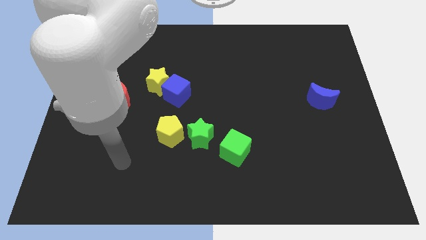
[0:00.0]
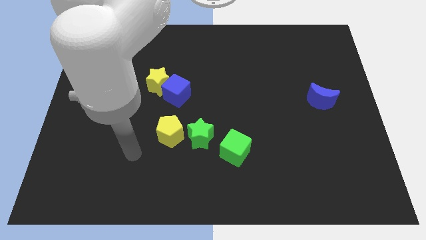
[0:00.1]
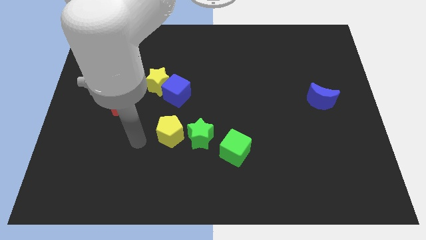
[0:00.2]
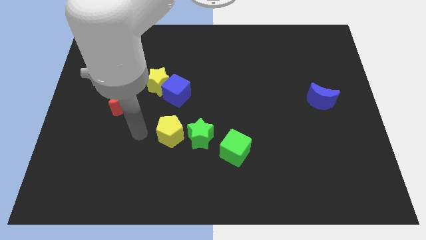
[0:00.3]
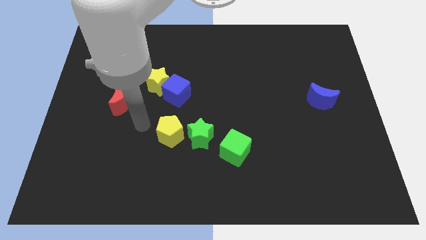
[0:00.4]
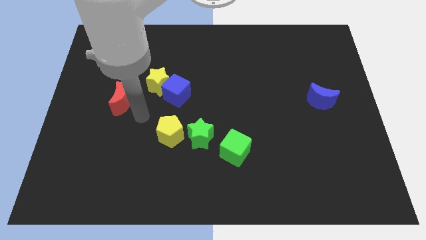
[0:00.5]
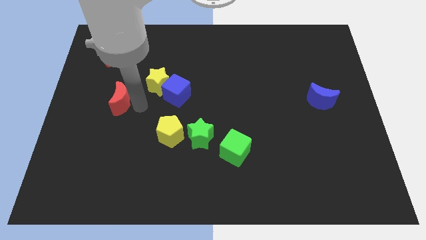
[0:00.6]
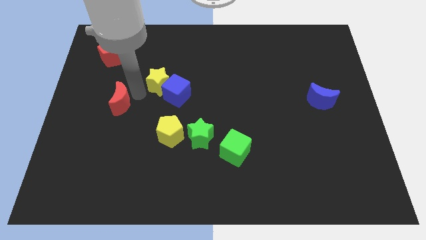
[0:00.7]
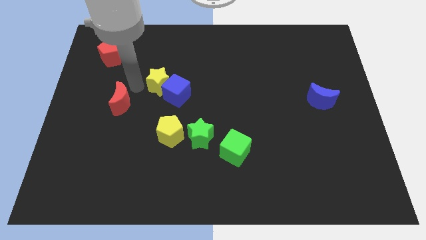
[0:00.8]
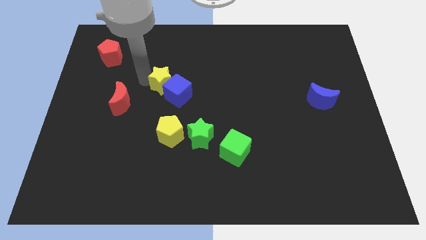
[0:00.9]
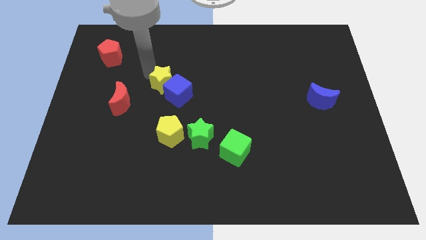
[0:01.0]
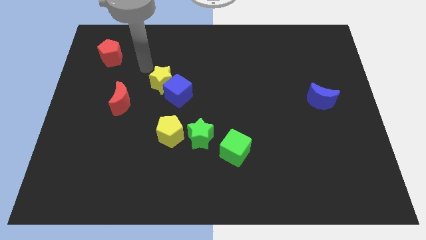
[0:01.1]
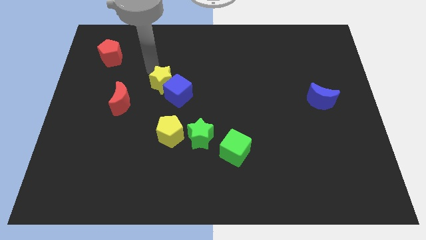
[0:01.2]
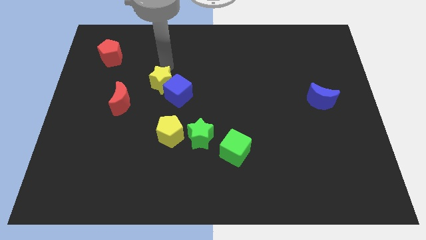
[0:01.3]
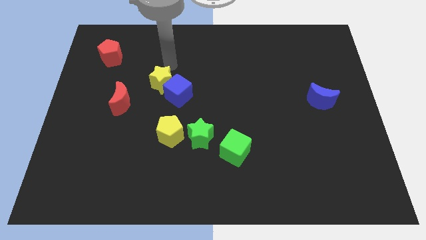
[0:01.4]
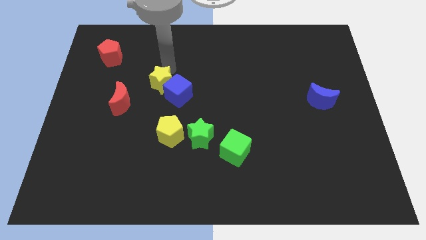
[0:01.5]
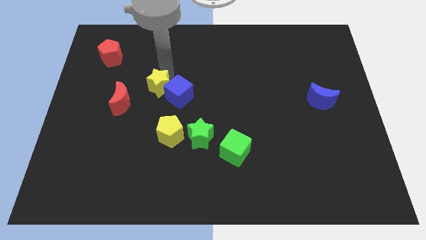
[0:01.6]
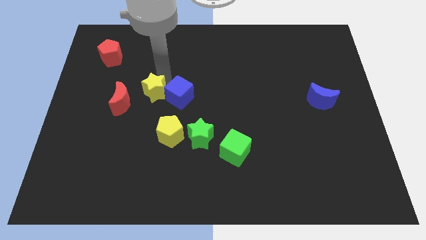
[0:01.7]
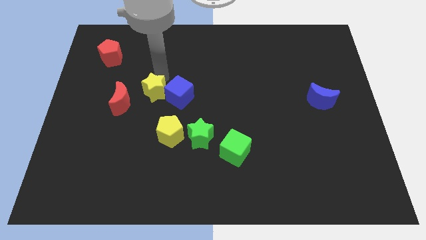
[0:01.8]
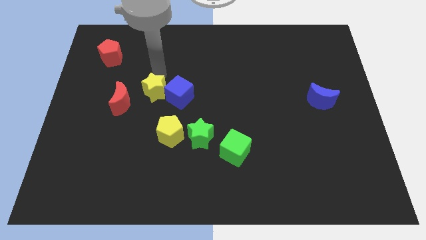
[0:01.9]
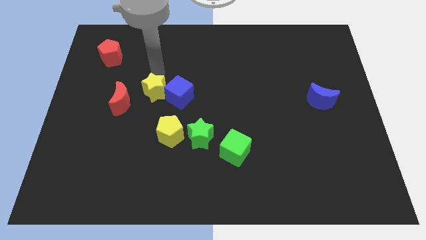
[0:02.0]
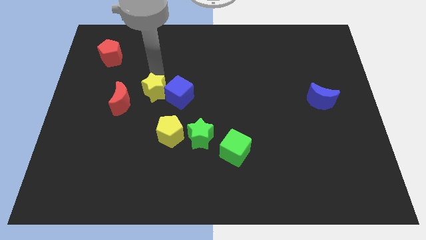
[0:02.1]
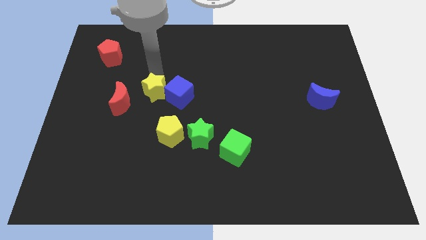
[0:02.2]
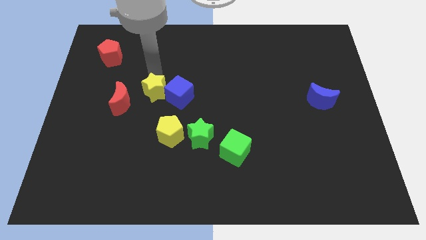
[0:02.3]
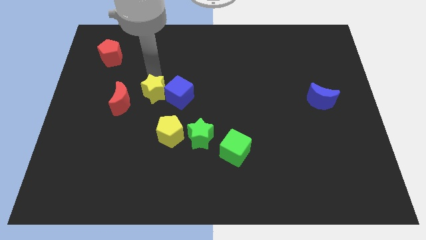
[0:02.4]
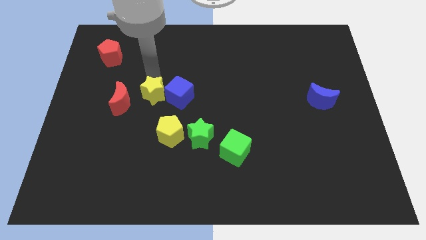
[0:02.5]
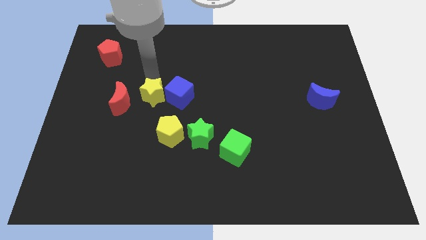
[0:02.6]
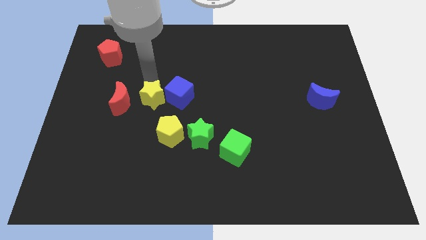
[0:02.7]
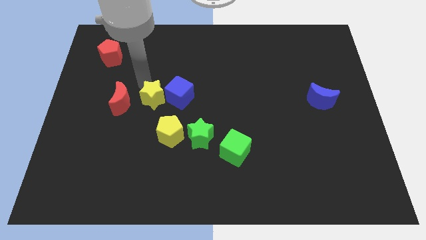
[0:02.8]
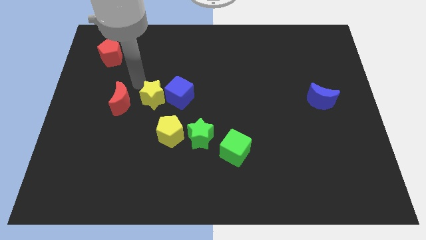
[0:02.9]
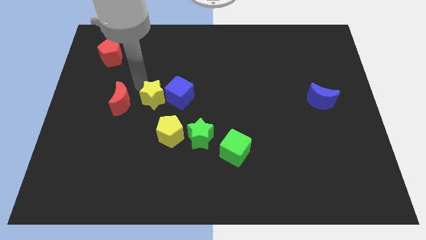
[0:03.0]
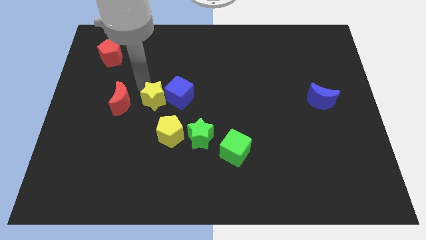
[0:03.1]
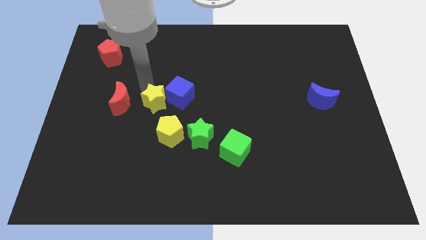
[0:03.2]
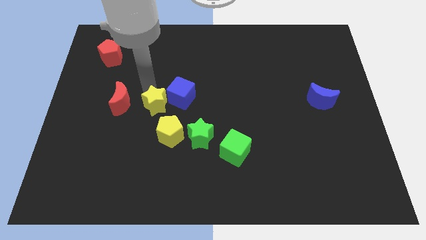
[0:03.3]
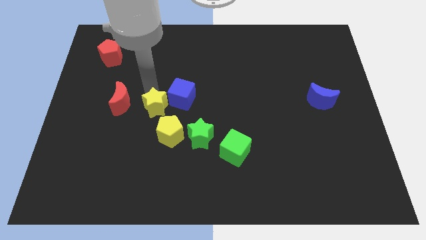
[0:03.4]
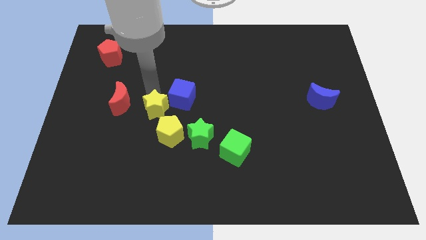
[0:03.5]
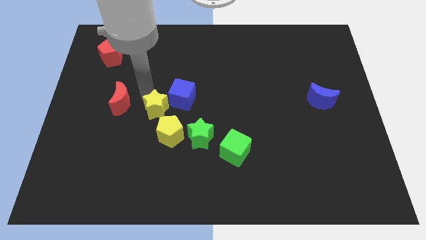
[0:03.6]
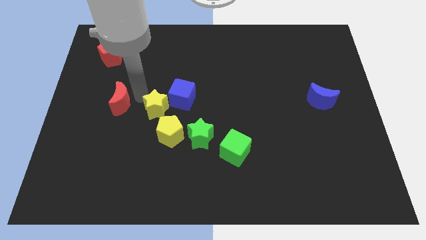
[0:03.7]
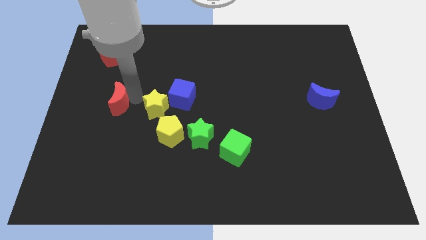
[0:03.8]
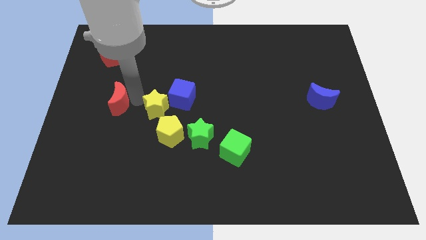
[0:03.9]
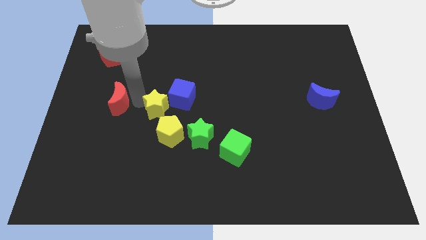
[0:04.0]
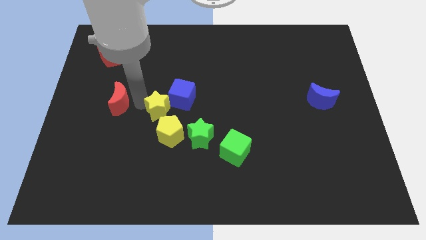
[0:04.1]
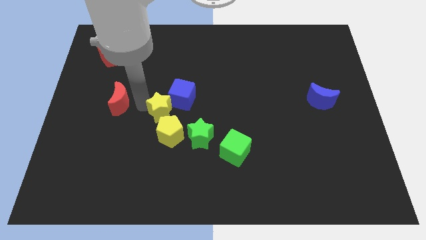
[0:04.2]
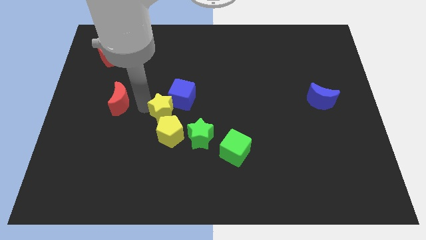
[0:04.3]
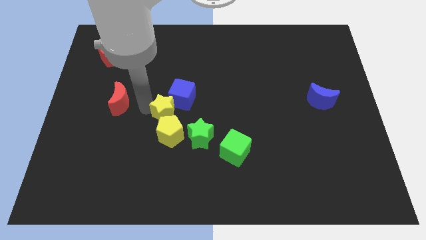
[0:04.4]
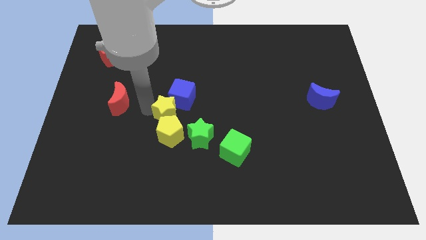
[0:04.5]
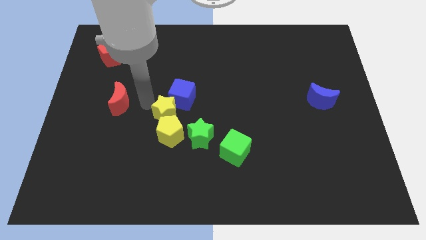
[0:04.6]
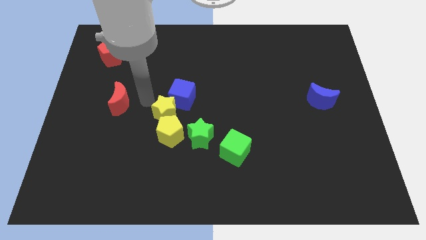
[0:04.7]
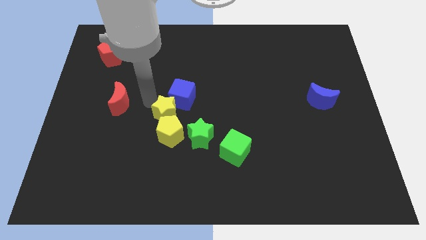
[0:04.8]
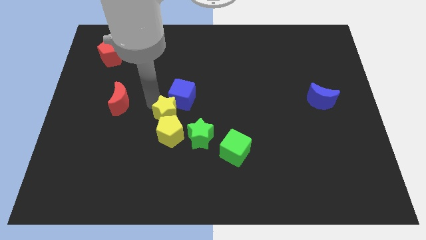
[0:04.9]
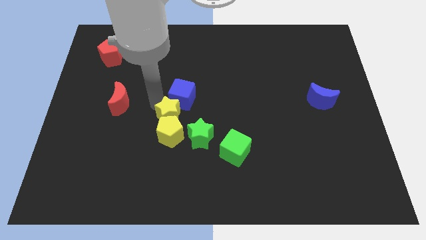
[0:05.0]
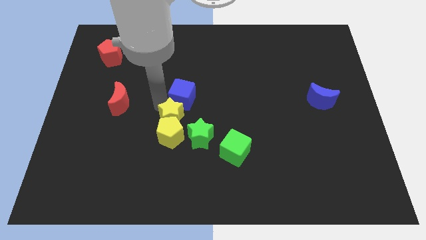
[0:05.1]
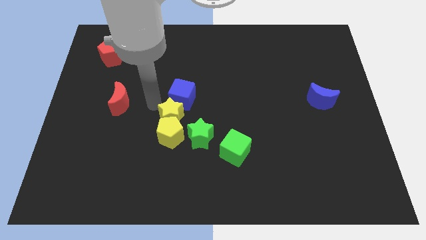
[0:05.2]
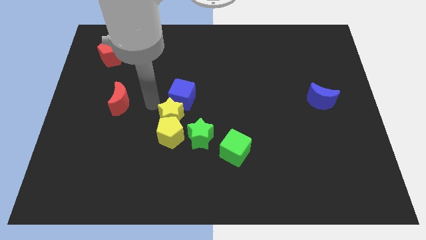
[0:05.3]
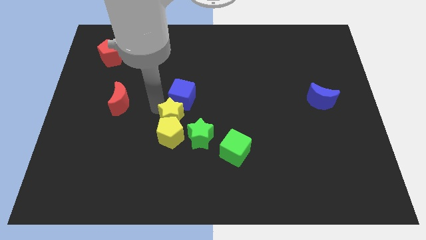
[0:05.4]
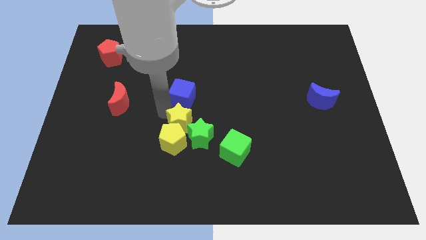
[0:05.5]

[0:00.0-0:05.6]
move the yellow star close to the green star
